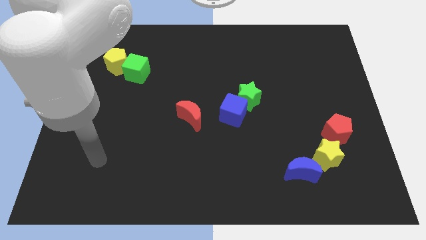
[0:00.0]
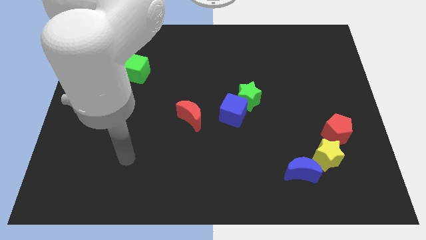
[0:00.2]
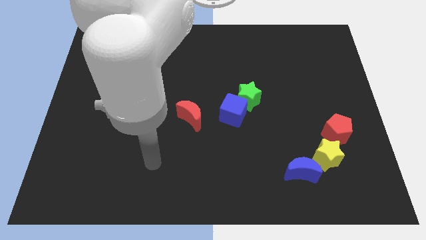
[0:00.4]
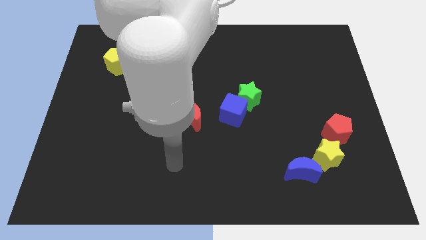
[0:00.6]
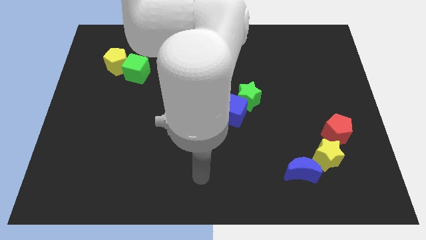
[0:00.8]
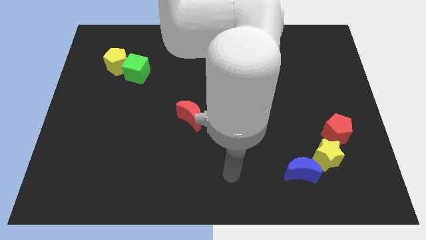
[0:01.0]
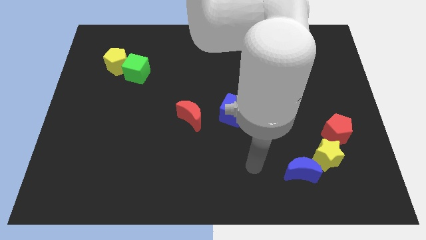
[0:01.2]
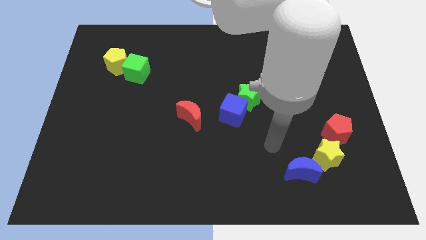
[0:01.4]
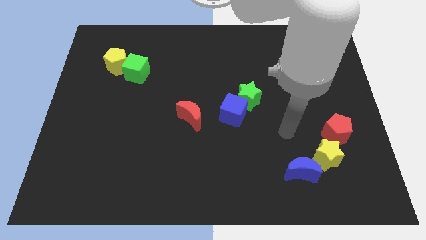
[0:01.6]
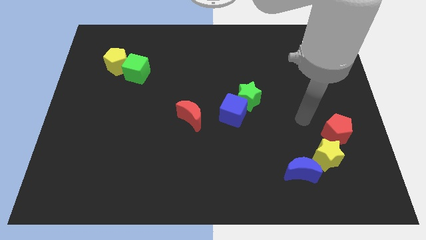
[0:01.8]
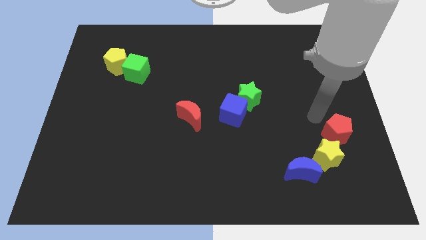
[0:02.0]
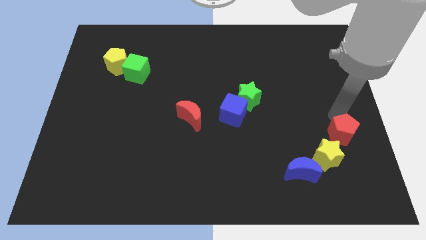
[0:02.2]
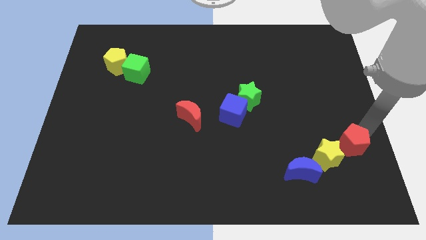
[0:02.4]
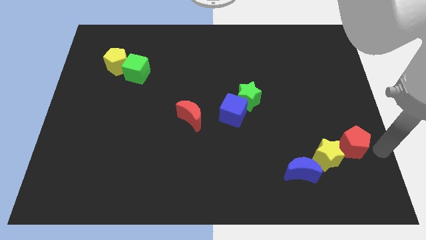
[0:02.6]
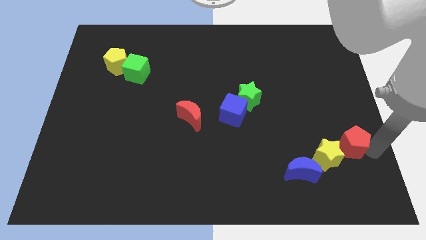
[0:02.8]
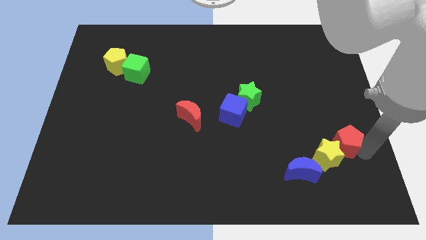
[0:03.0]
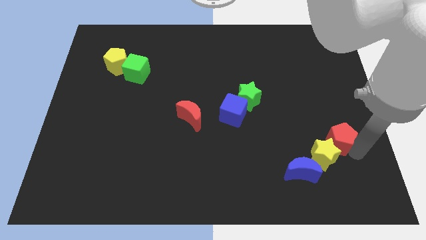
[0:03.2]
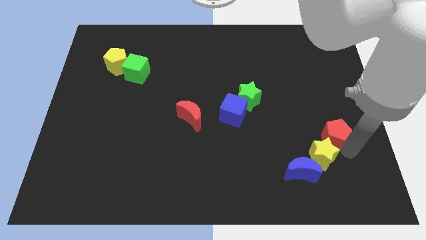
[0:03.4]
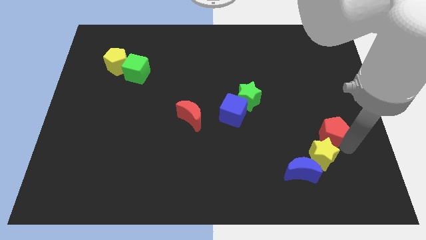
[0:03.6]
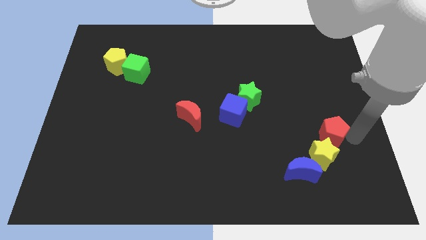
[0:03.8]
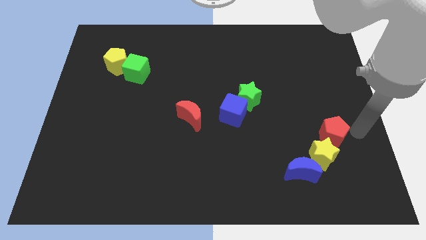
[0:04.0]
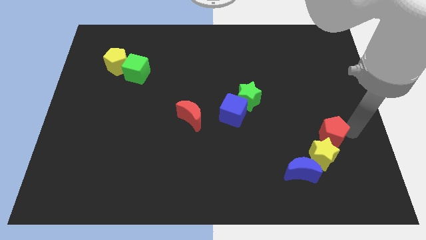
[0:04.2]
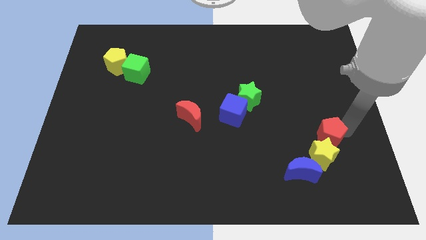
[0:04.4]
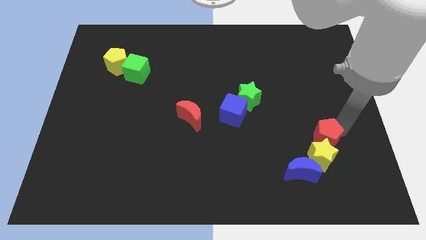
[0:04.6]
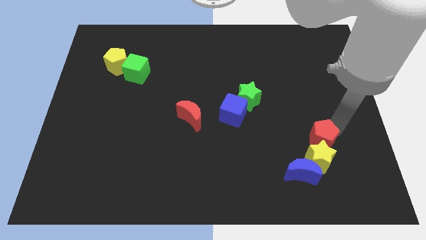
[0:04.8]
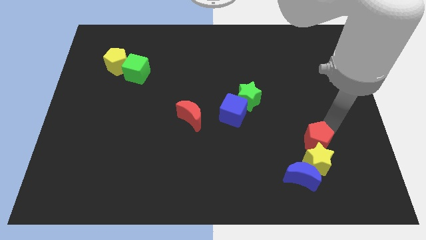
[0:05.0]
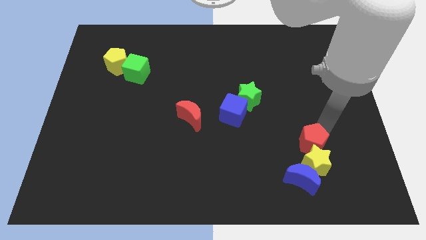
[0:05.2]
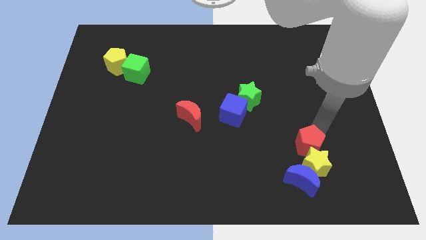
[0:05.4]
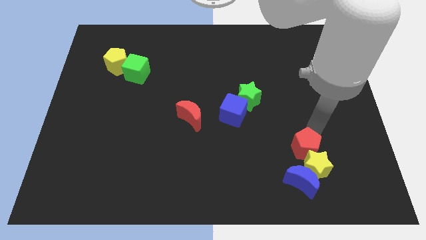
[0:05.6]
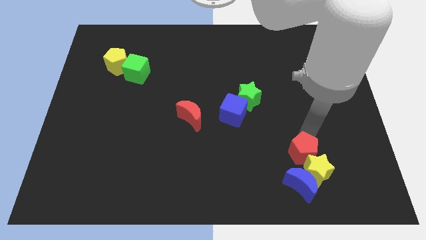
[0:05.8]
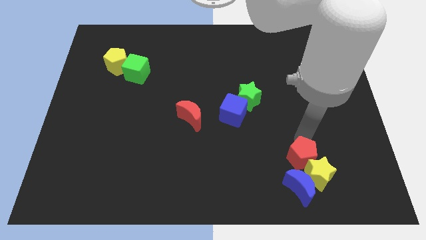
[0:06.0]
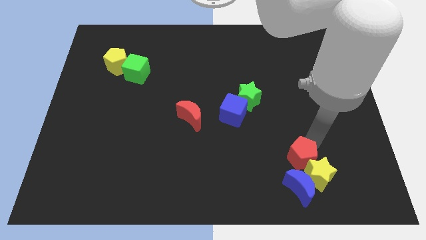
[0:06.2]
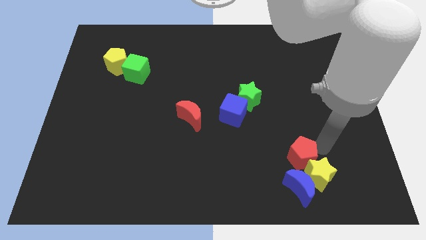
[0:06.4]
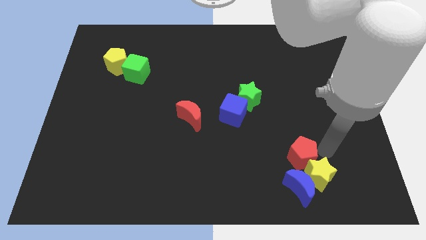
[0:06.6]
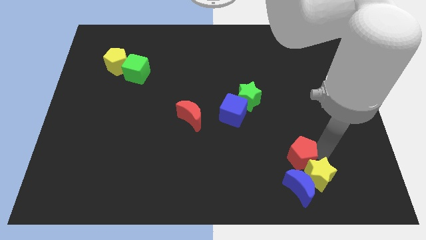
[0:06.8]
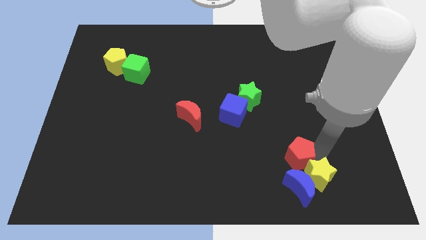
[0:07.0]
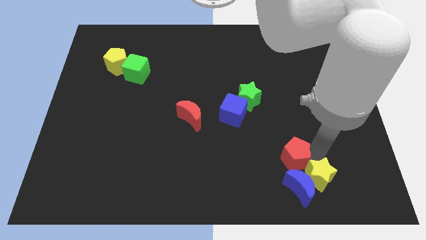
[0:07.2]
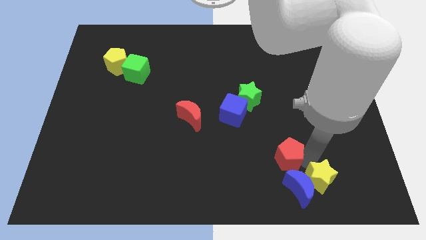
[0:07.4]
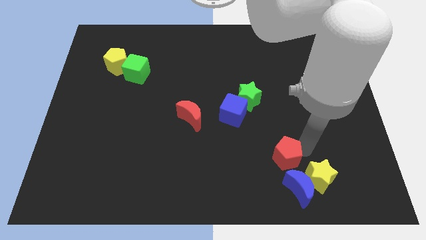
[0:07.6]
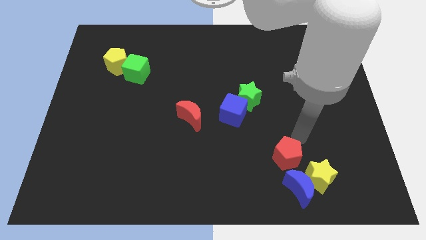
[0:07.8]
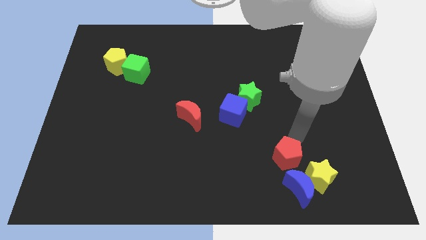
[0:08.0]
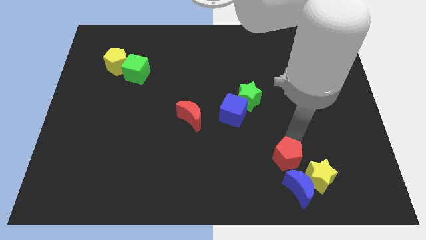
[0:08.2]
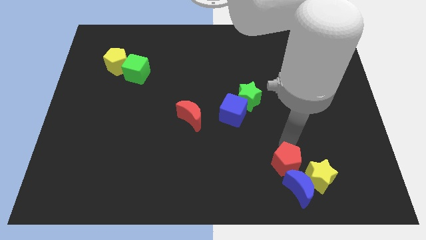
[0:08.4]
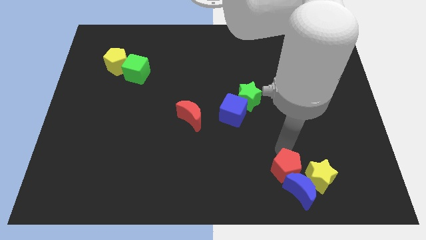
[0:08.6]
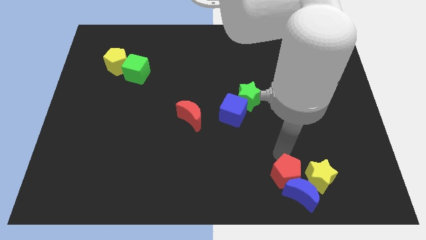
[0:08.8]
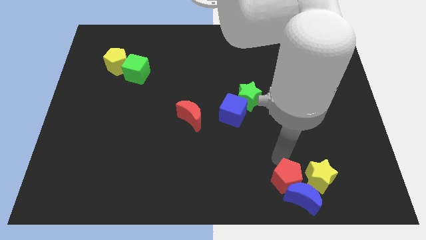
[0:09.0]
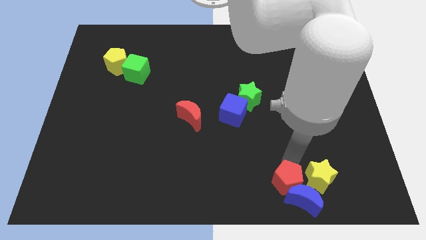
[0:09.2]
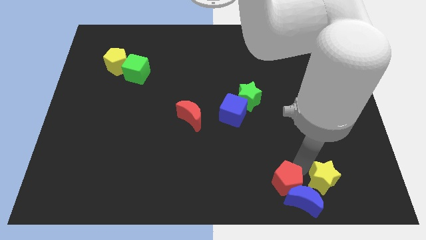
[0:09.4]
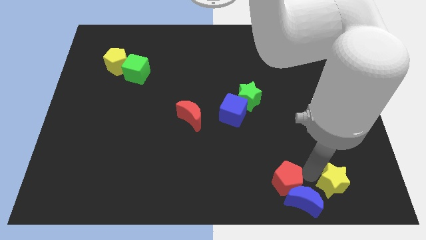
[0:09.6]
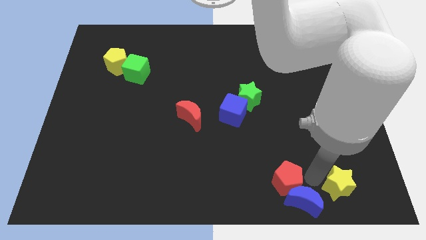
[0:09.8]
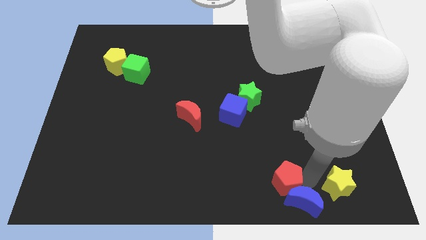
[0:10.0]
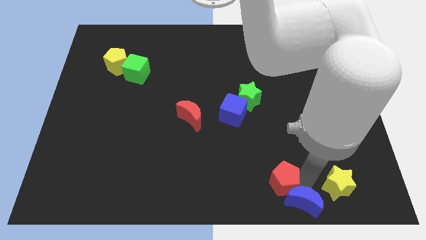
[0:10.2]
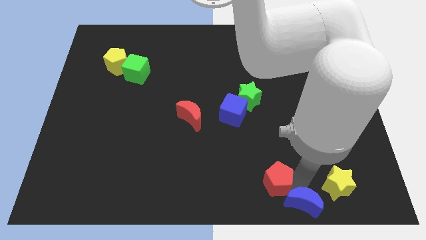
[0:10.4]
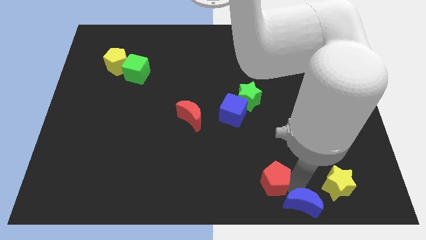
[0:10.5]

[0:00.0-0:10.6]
push the red pentagon to the bottom

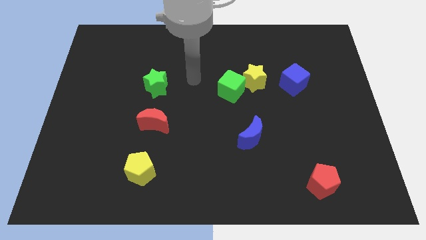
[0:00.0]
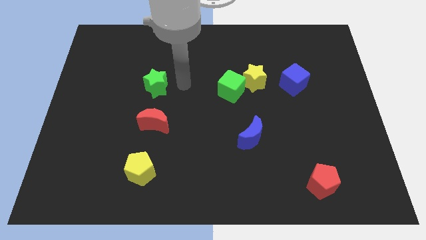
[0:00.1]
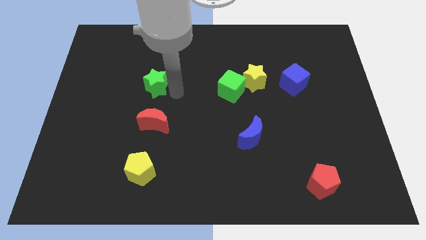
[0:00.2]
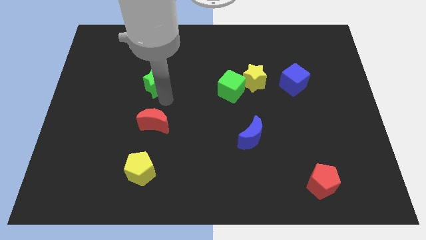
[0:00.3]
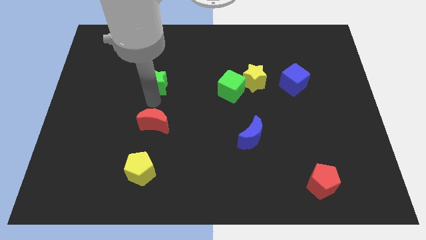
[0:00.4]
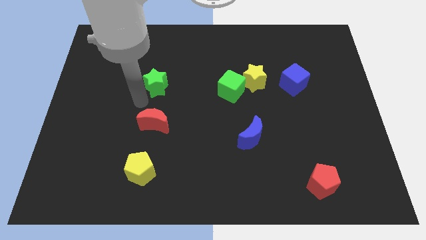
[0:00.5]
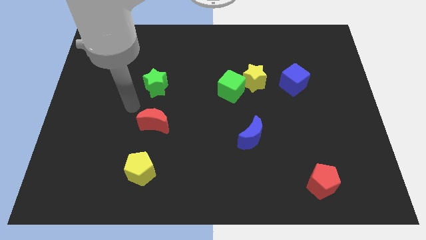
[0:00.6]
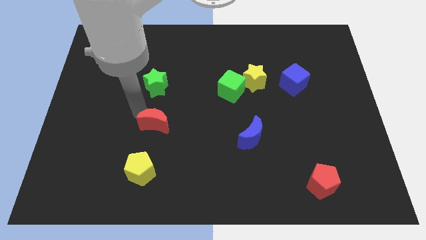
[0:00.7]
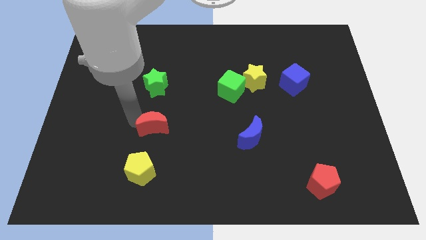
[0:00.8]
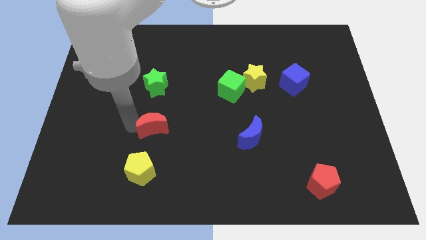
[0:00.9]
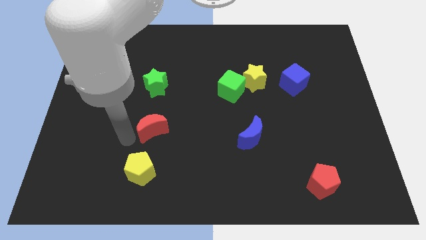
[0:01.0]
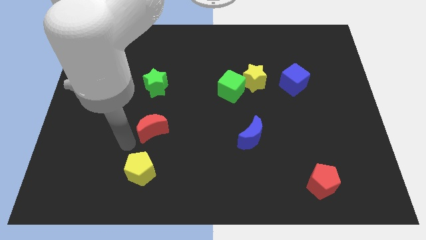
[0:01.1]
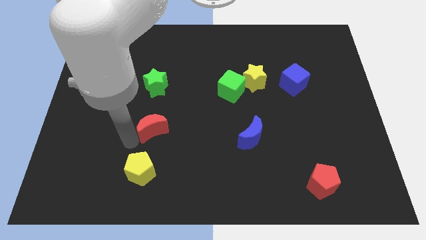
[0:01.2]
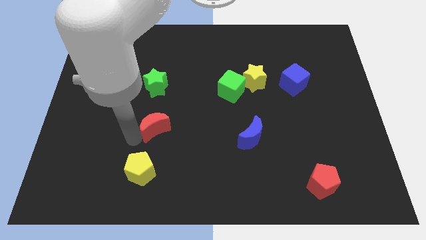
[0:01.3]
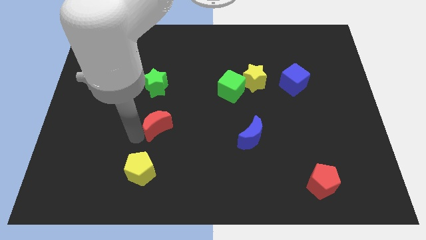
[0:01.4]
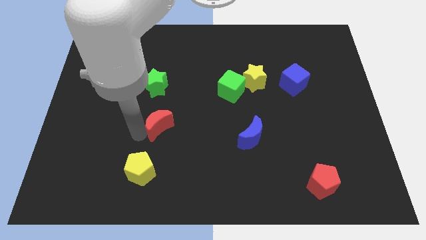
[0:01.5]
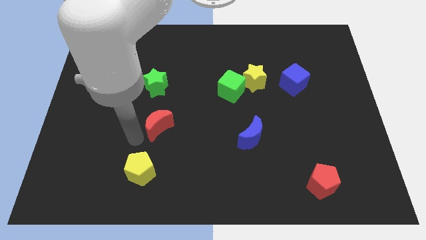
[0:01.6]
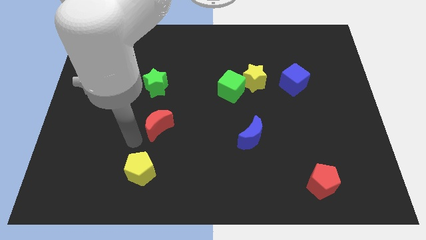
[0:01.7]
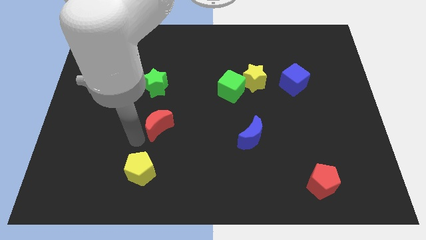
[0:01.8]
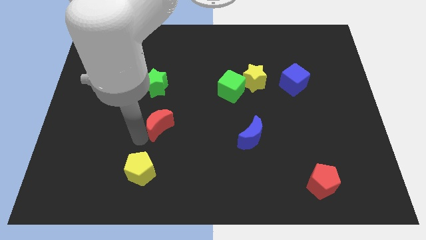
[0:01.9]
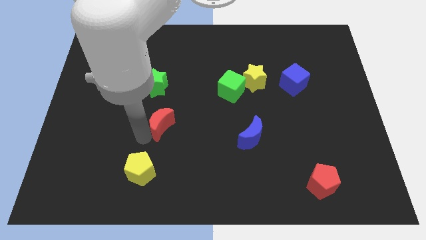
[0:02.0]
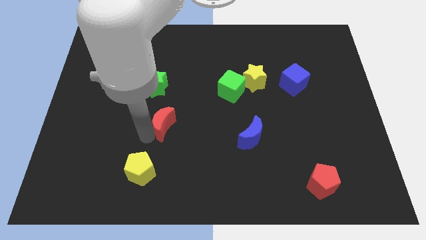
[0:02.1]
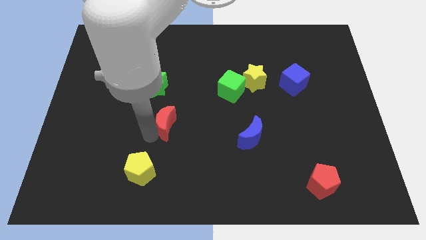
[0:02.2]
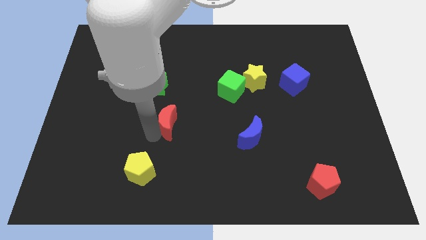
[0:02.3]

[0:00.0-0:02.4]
move the red moon to the center
